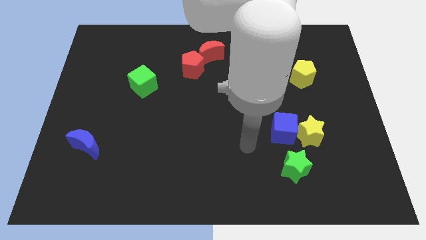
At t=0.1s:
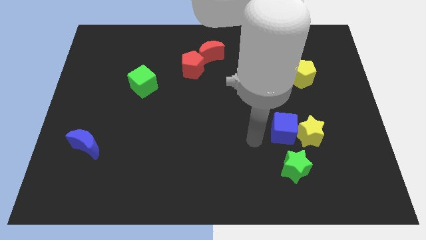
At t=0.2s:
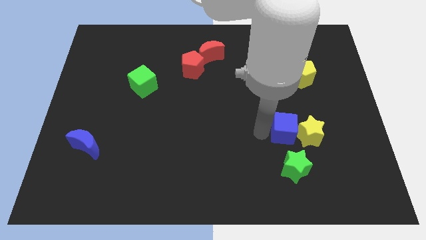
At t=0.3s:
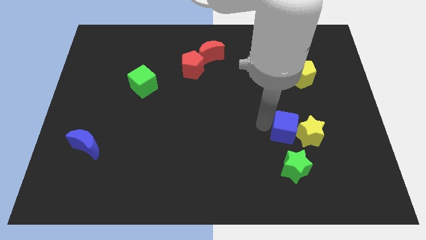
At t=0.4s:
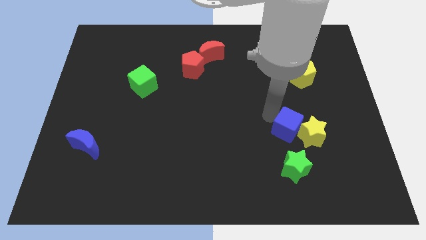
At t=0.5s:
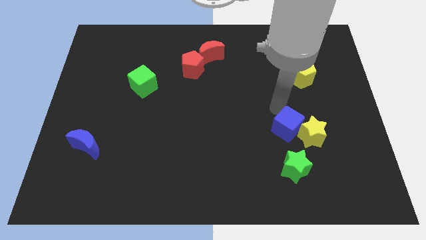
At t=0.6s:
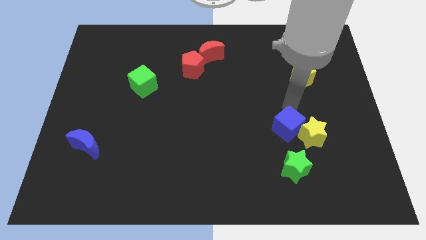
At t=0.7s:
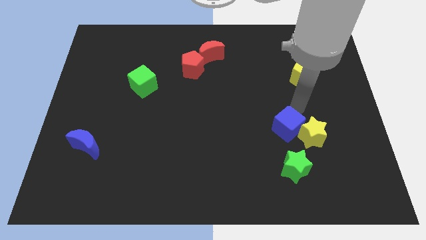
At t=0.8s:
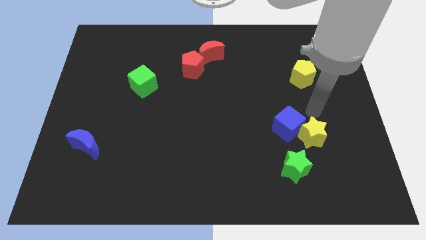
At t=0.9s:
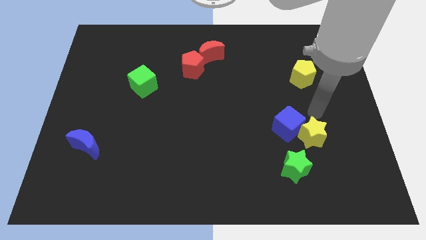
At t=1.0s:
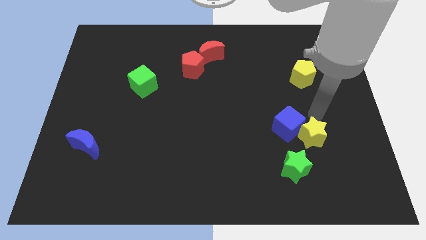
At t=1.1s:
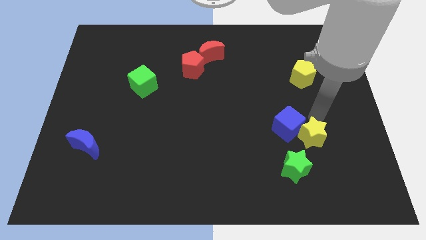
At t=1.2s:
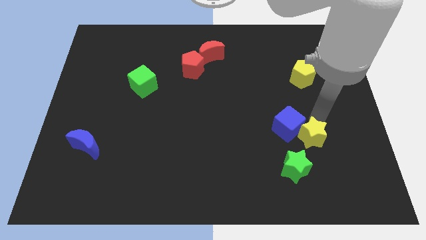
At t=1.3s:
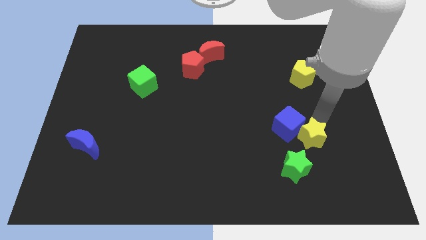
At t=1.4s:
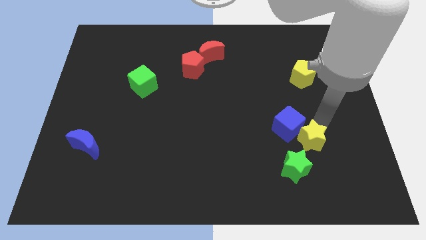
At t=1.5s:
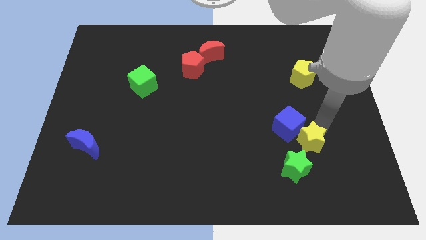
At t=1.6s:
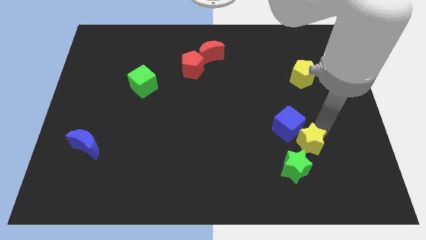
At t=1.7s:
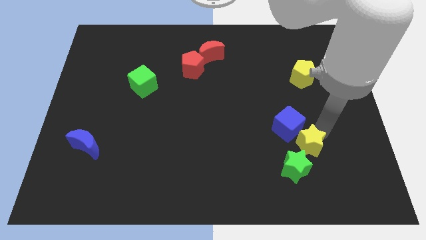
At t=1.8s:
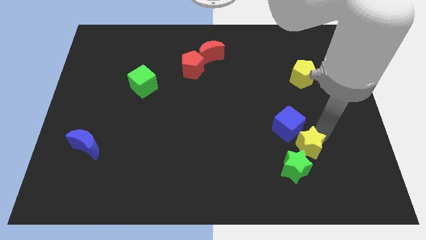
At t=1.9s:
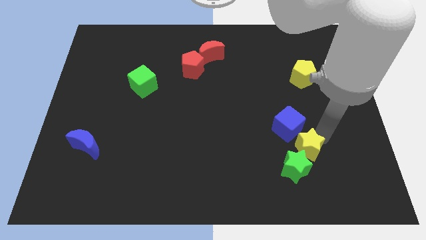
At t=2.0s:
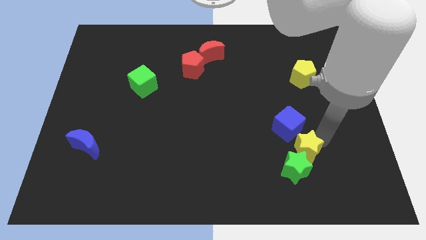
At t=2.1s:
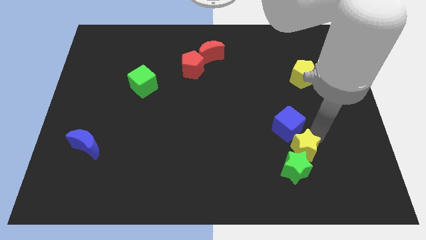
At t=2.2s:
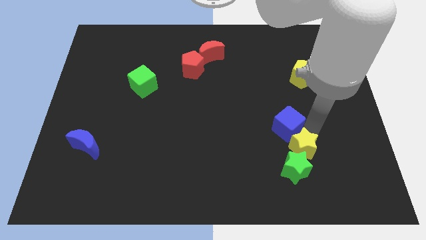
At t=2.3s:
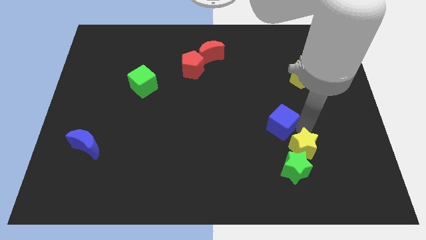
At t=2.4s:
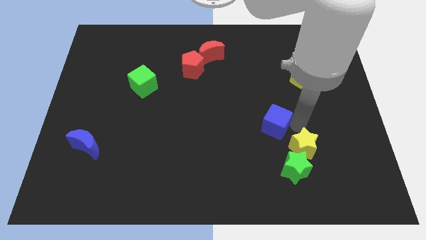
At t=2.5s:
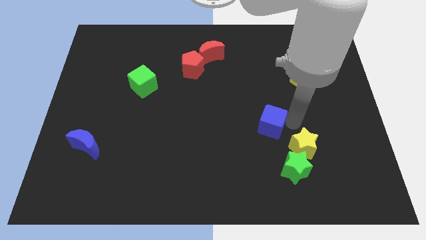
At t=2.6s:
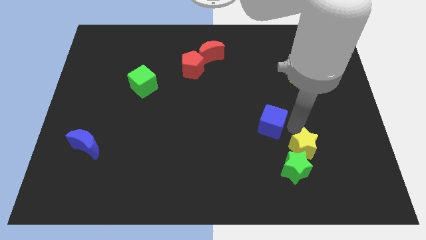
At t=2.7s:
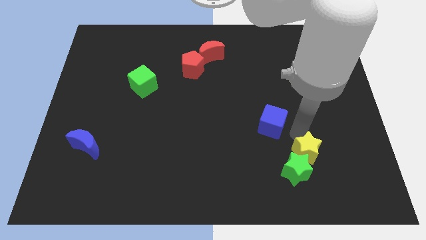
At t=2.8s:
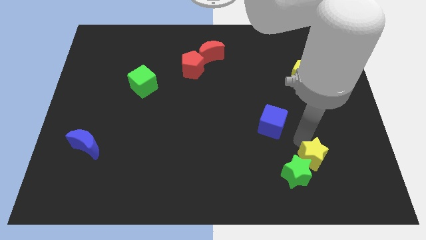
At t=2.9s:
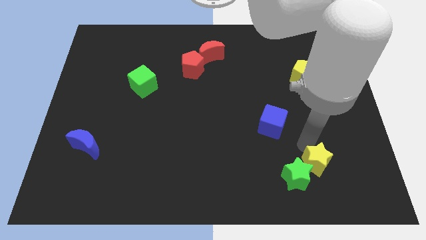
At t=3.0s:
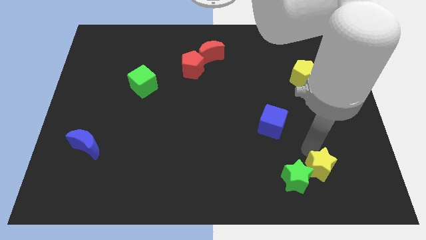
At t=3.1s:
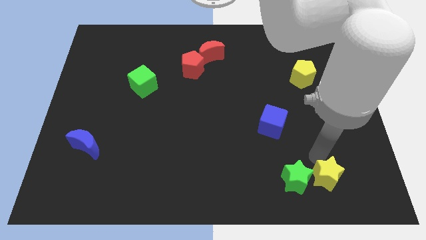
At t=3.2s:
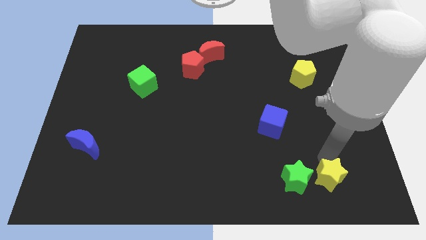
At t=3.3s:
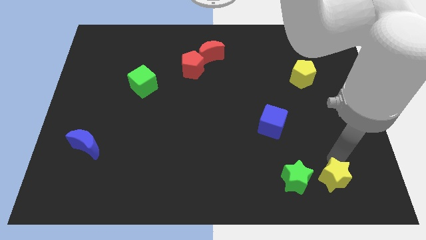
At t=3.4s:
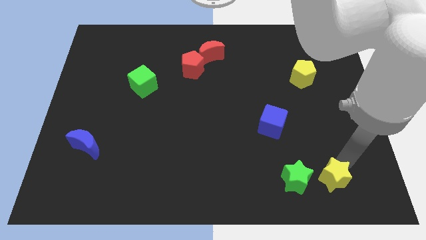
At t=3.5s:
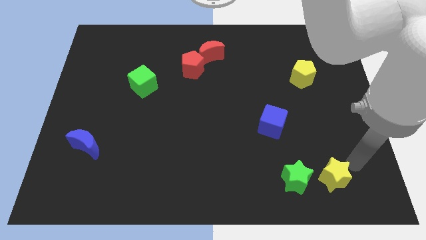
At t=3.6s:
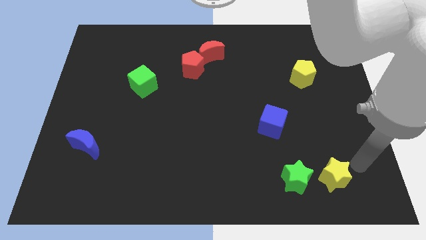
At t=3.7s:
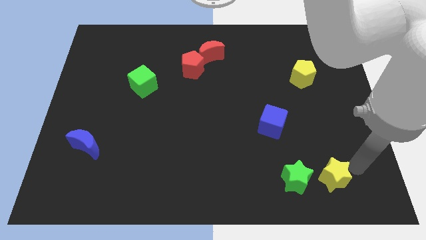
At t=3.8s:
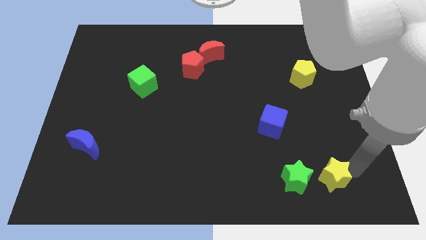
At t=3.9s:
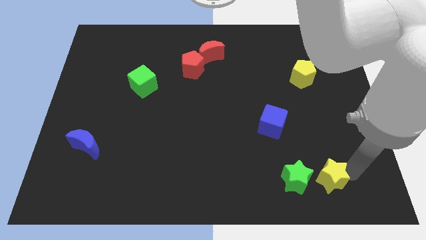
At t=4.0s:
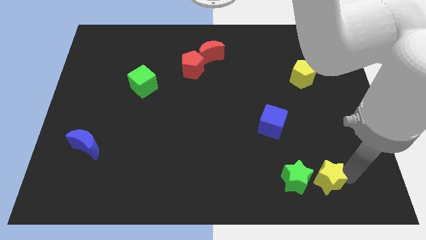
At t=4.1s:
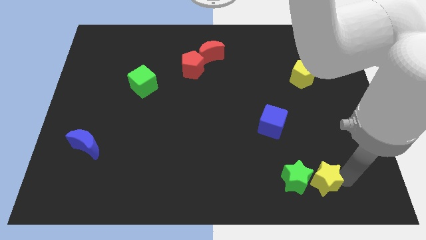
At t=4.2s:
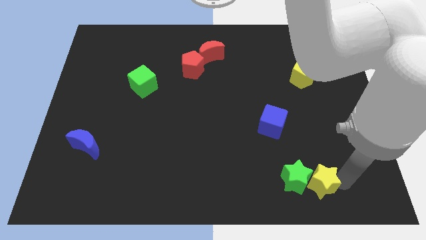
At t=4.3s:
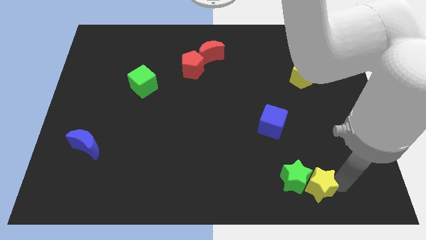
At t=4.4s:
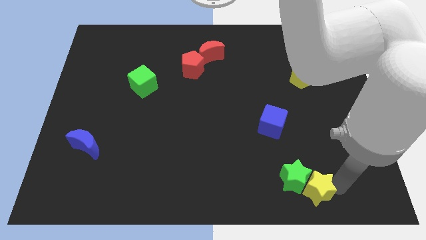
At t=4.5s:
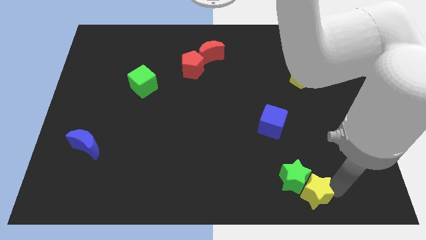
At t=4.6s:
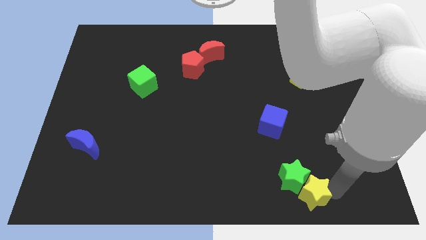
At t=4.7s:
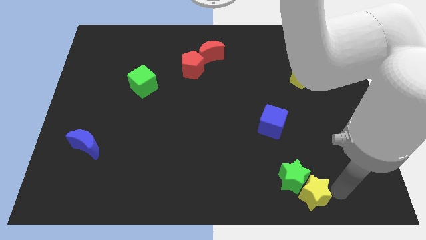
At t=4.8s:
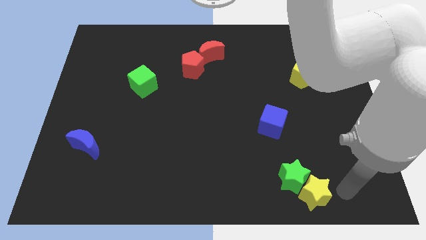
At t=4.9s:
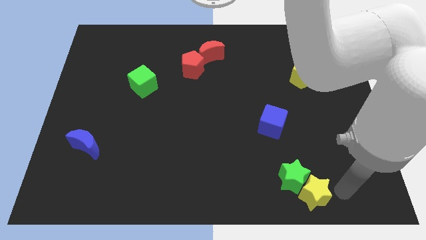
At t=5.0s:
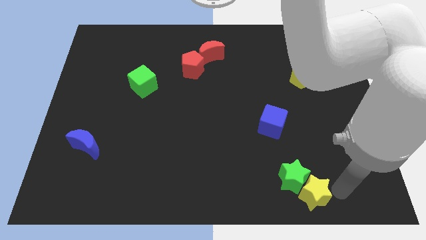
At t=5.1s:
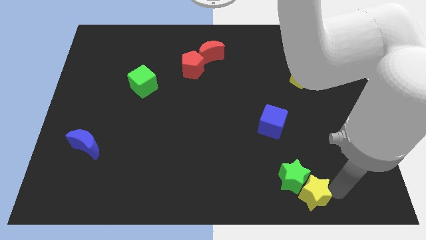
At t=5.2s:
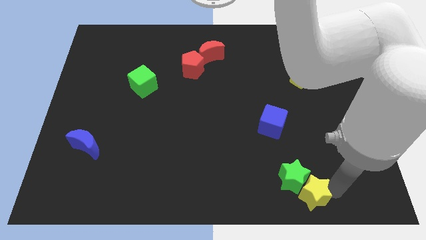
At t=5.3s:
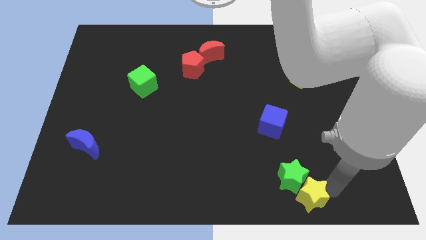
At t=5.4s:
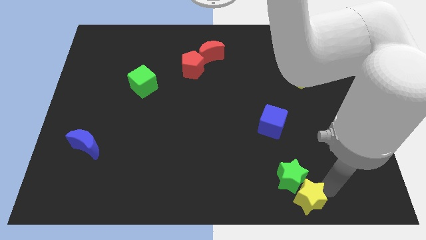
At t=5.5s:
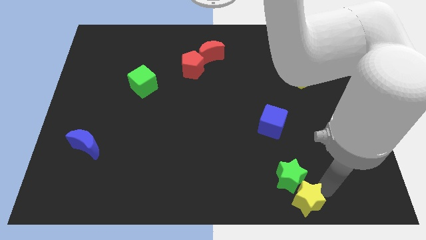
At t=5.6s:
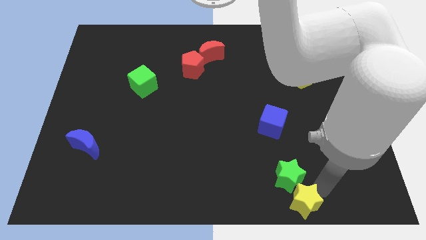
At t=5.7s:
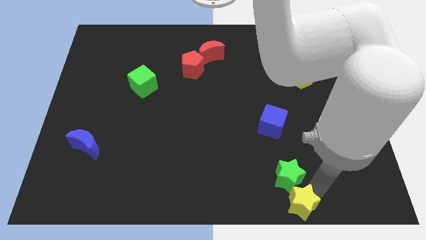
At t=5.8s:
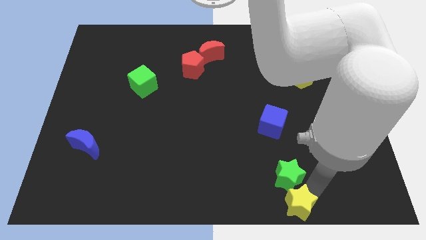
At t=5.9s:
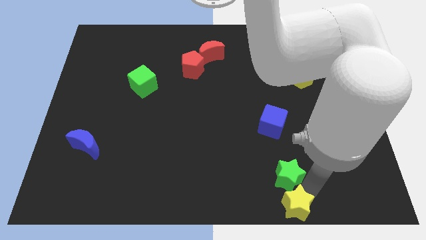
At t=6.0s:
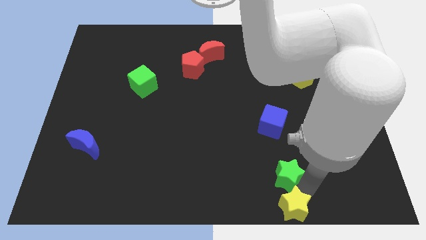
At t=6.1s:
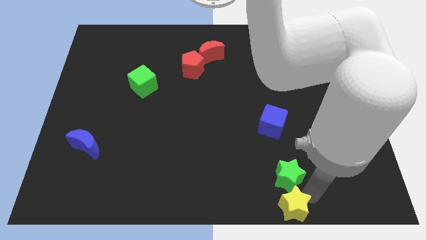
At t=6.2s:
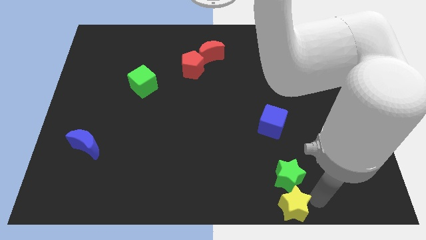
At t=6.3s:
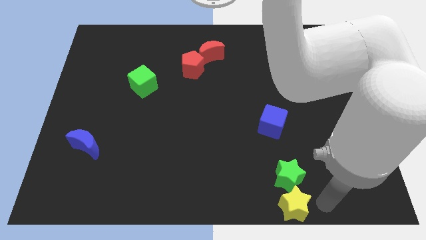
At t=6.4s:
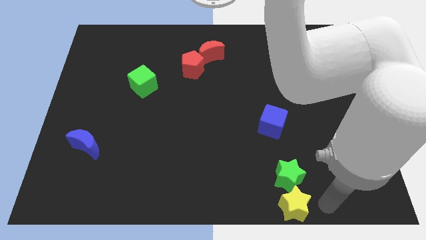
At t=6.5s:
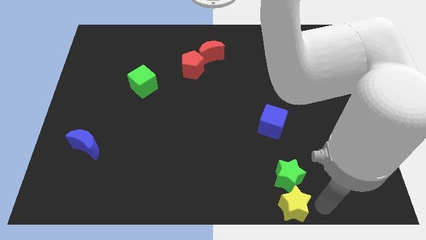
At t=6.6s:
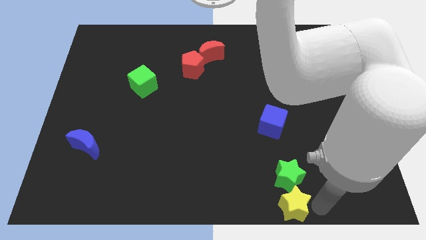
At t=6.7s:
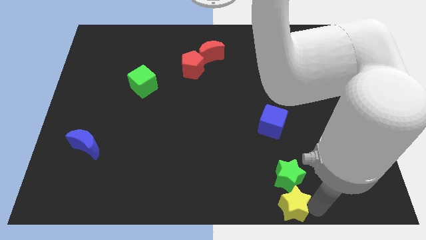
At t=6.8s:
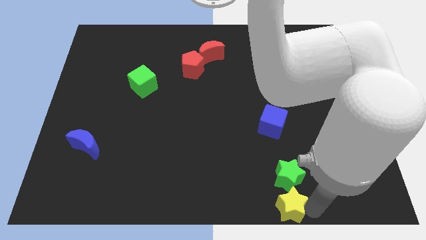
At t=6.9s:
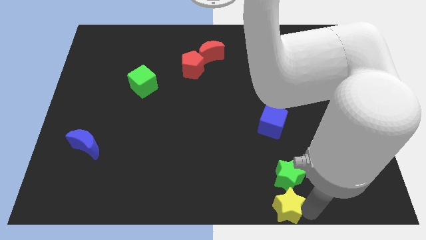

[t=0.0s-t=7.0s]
push the yellow star to the bottom side
